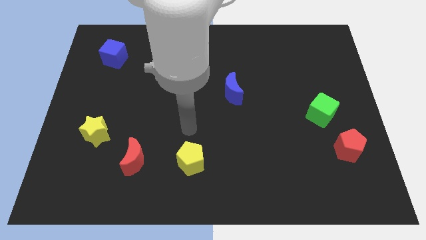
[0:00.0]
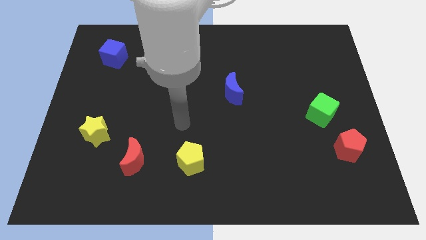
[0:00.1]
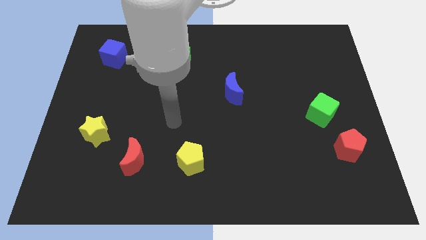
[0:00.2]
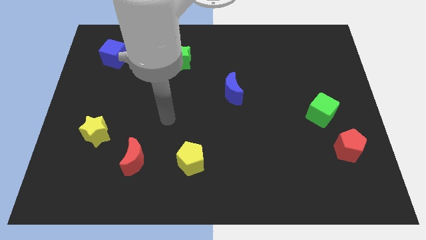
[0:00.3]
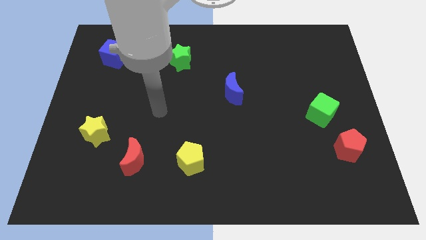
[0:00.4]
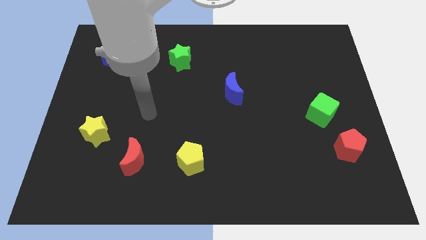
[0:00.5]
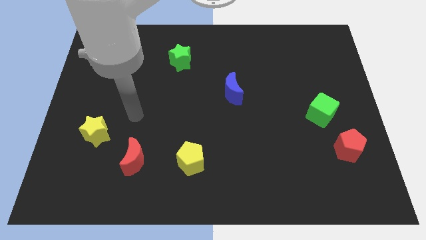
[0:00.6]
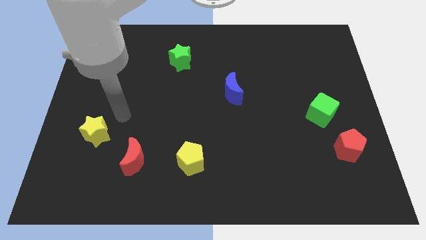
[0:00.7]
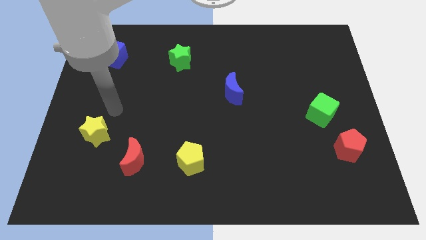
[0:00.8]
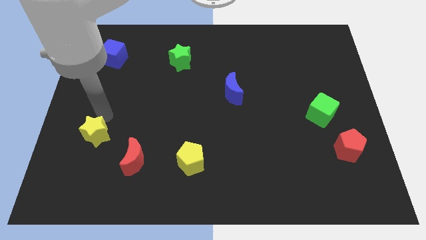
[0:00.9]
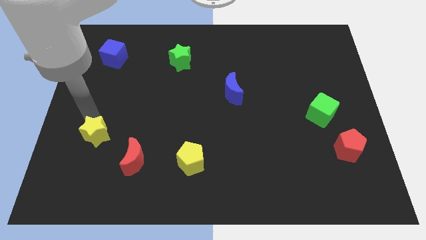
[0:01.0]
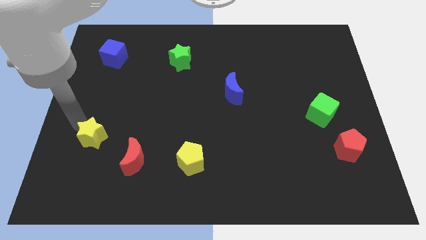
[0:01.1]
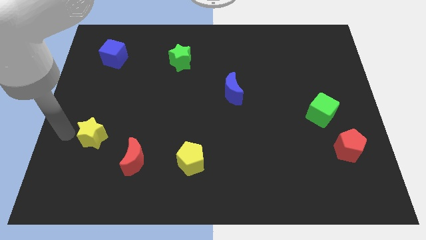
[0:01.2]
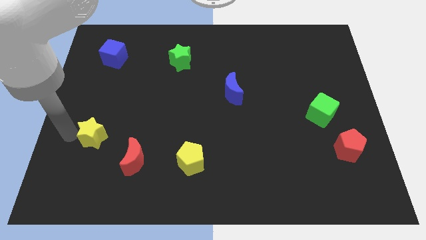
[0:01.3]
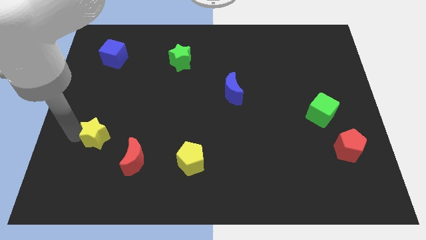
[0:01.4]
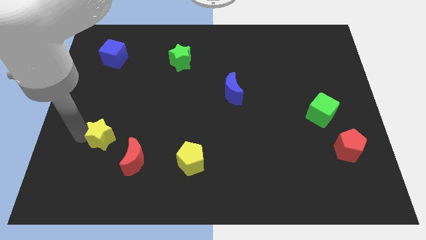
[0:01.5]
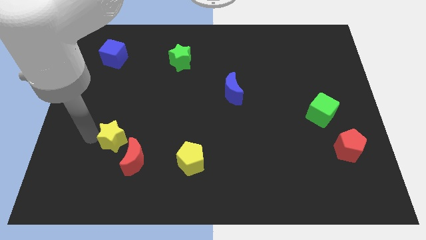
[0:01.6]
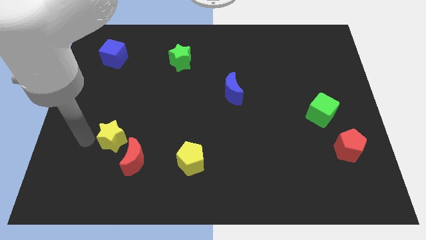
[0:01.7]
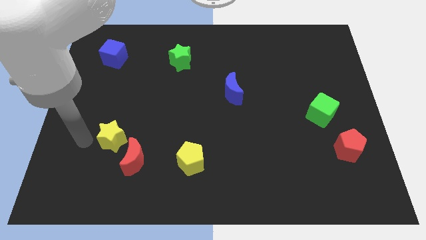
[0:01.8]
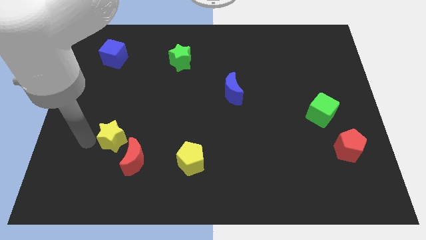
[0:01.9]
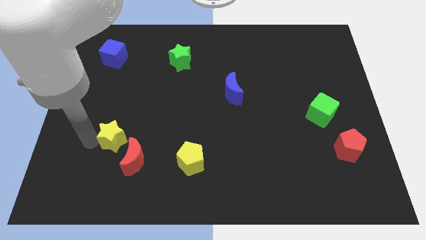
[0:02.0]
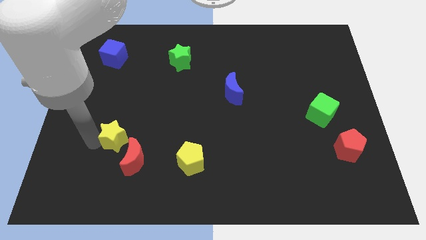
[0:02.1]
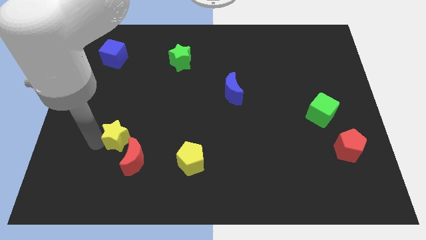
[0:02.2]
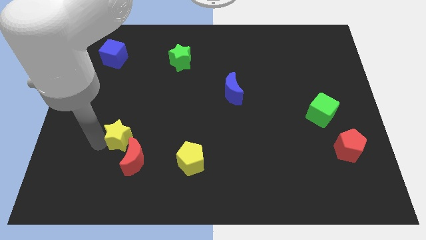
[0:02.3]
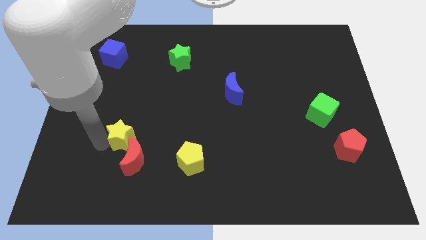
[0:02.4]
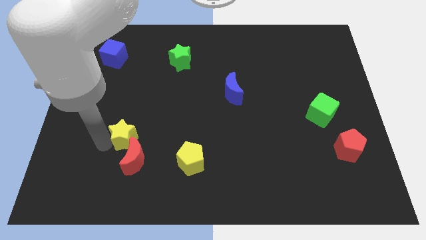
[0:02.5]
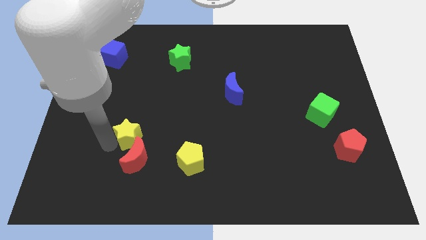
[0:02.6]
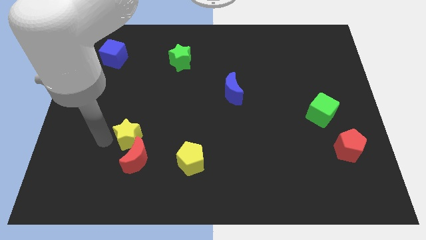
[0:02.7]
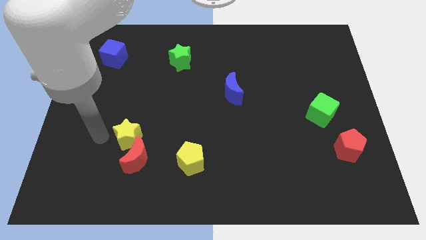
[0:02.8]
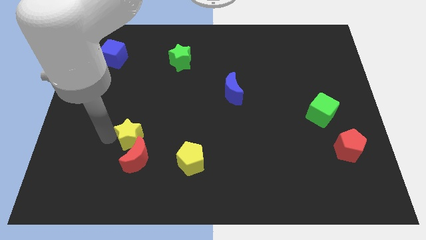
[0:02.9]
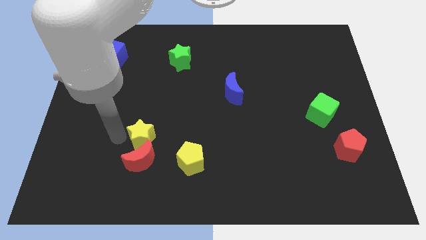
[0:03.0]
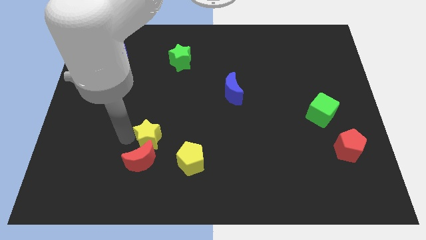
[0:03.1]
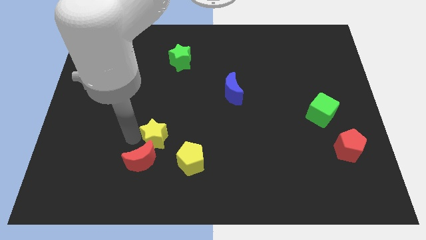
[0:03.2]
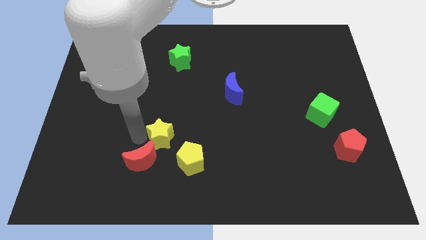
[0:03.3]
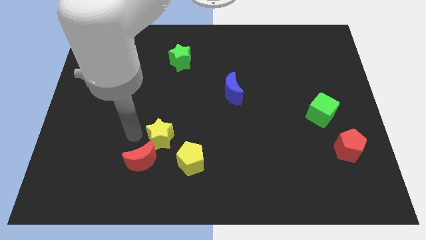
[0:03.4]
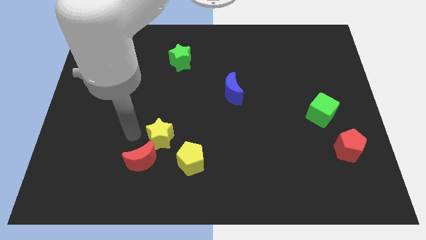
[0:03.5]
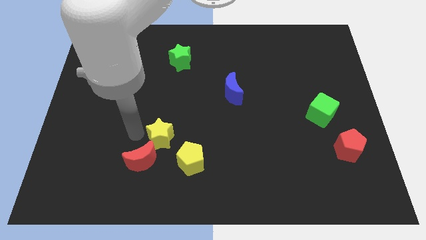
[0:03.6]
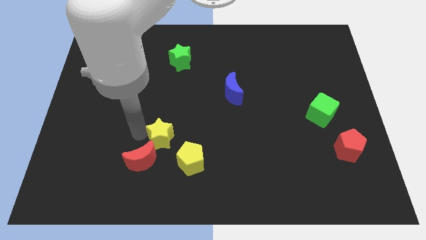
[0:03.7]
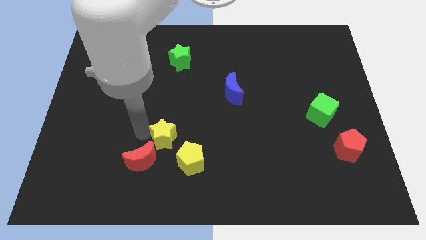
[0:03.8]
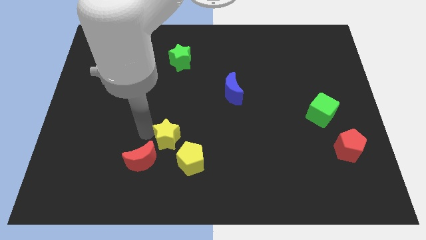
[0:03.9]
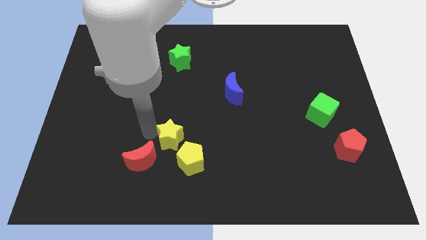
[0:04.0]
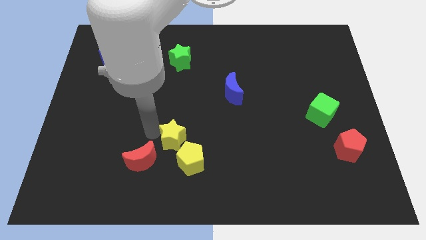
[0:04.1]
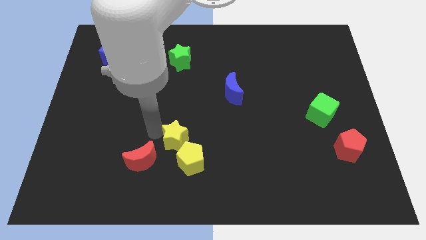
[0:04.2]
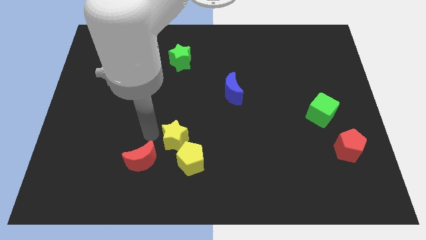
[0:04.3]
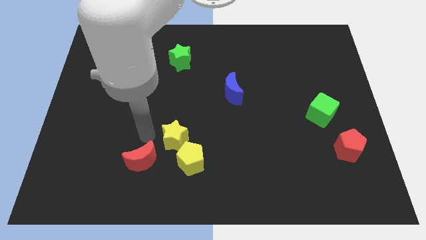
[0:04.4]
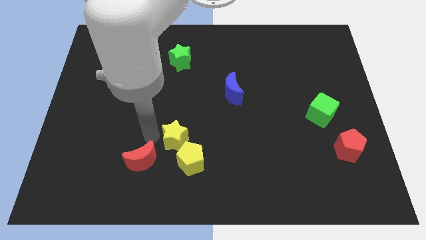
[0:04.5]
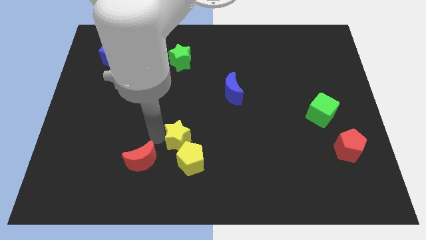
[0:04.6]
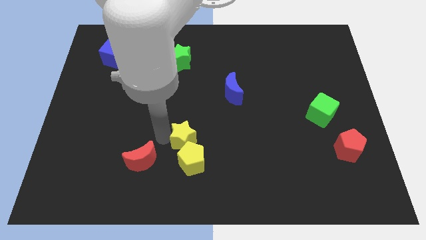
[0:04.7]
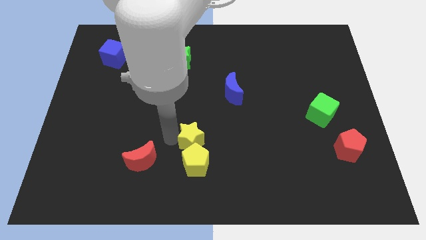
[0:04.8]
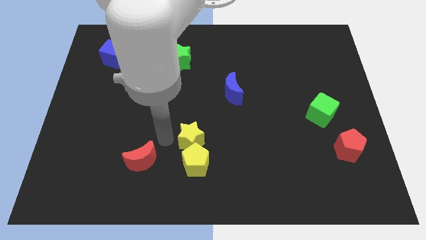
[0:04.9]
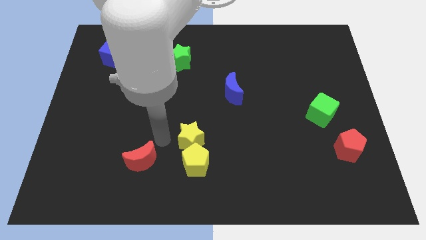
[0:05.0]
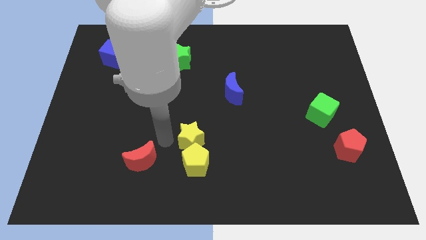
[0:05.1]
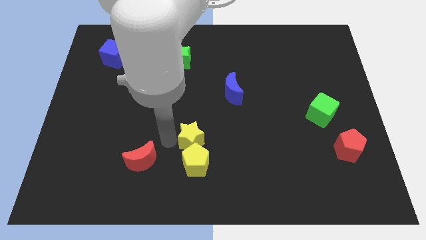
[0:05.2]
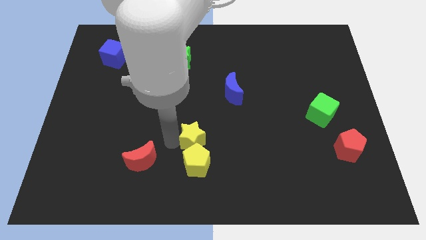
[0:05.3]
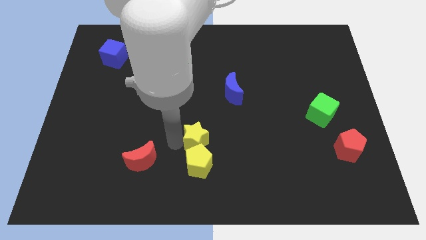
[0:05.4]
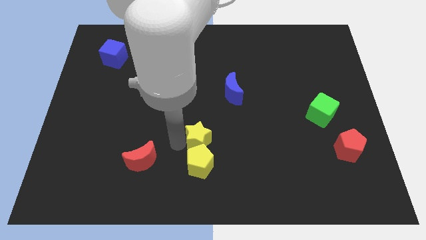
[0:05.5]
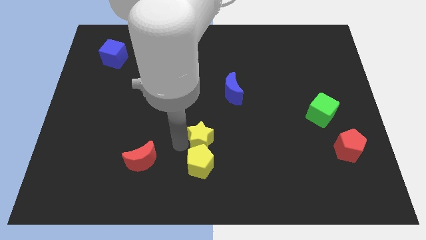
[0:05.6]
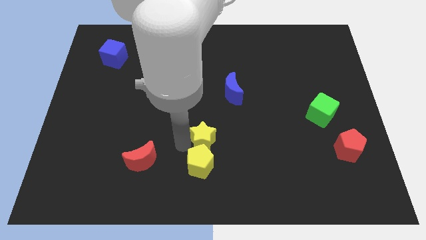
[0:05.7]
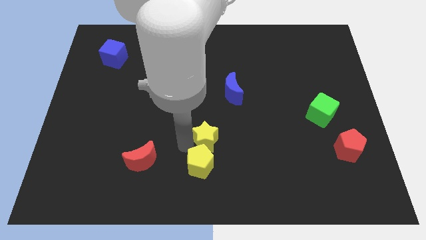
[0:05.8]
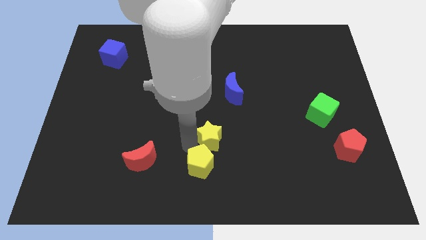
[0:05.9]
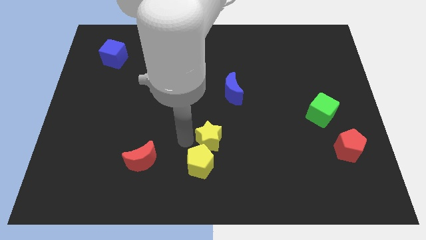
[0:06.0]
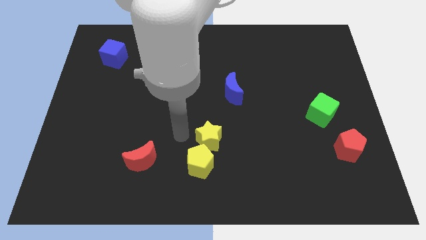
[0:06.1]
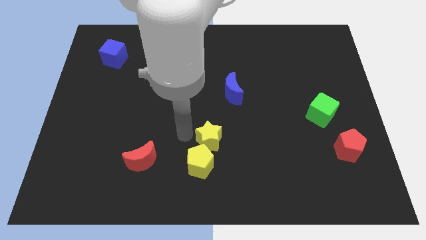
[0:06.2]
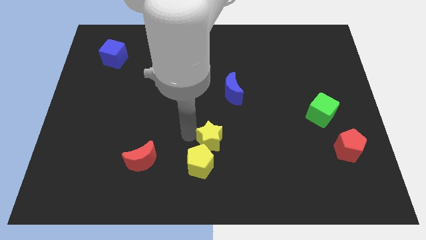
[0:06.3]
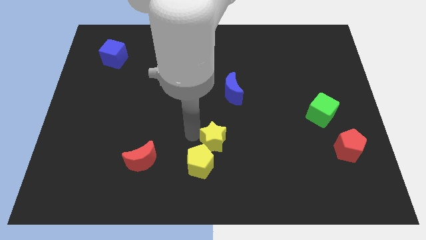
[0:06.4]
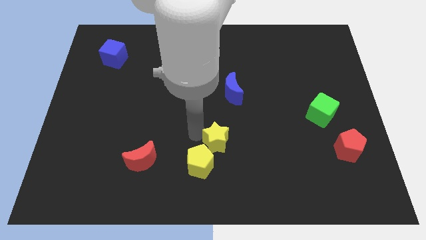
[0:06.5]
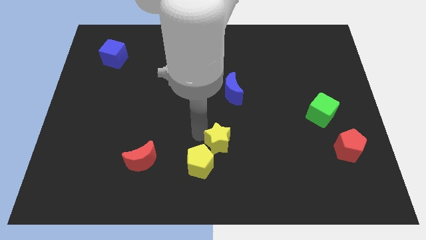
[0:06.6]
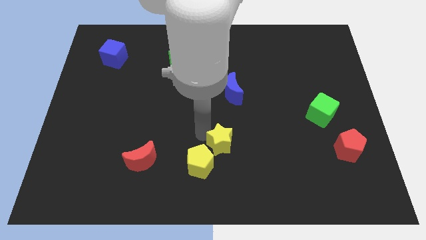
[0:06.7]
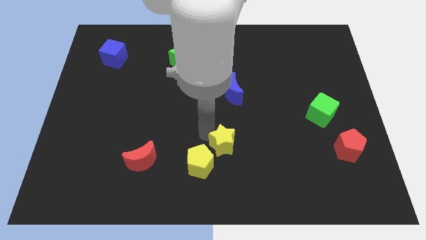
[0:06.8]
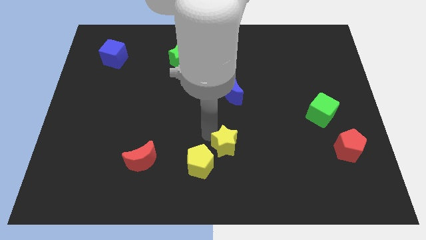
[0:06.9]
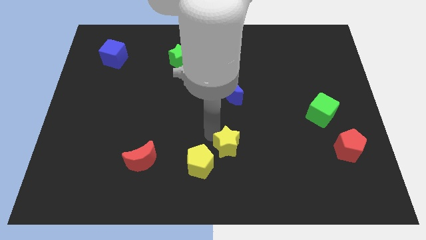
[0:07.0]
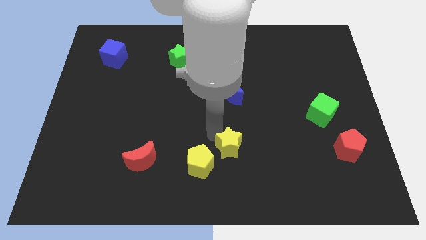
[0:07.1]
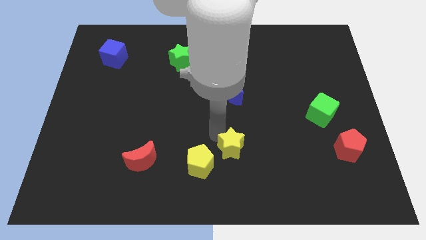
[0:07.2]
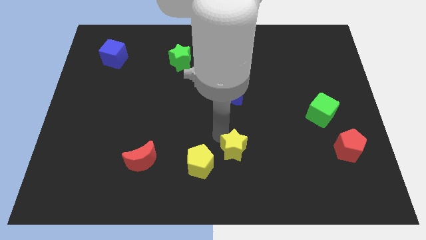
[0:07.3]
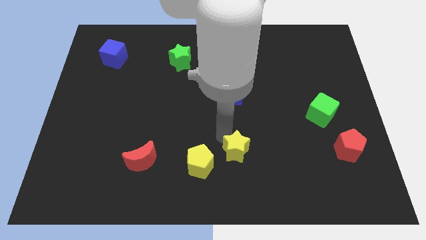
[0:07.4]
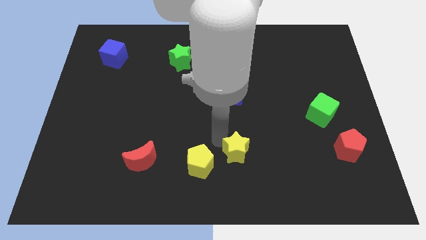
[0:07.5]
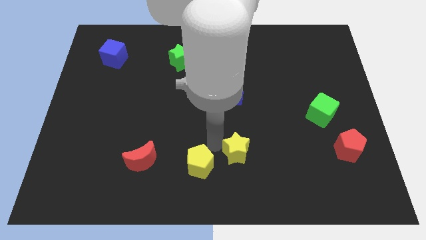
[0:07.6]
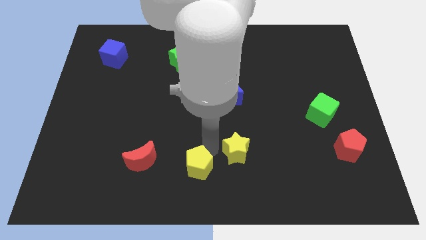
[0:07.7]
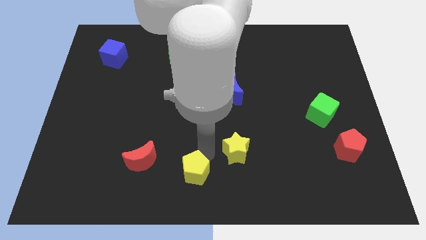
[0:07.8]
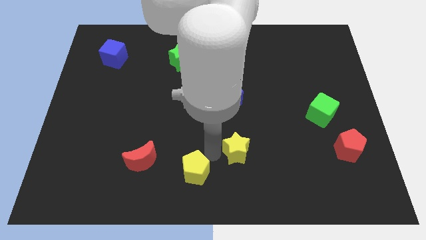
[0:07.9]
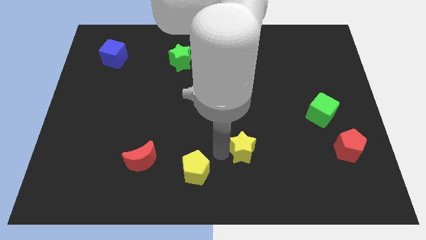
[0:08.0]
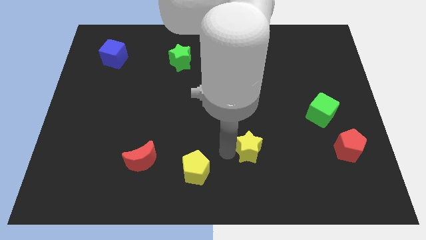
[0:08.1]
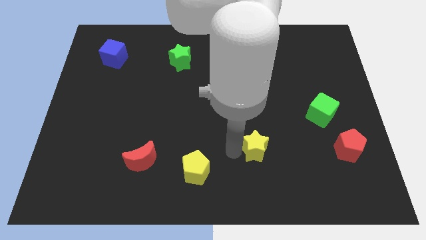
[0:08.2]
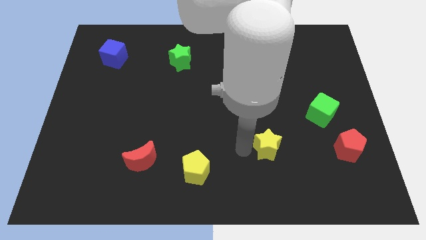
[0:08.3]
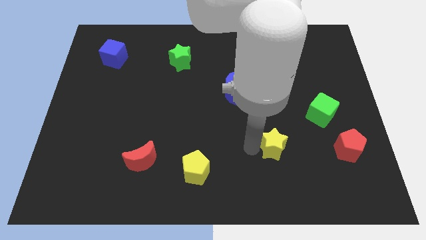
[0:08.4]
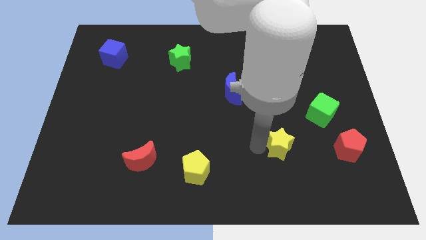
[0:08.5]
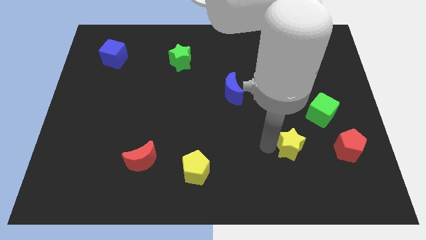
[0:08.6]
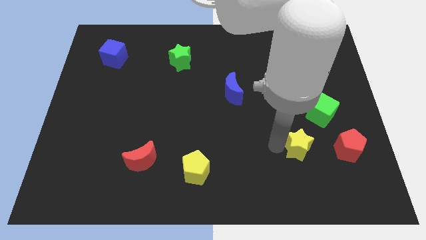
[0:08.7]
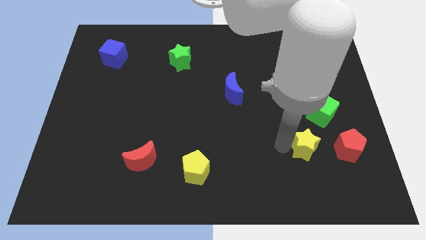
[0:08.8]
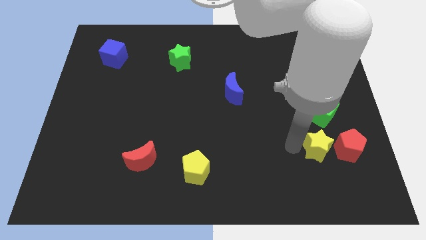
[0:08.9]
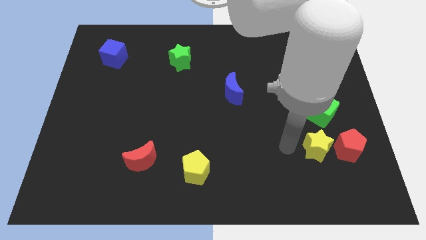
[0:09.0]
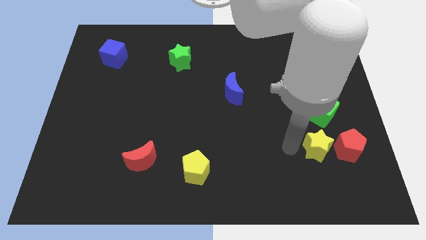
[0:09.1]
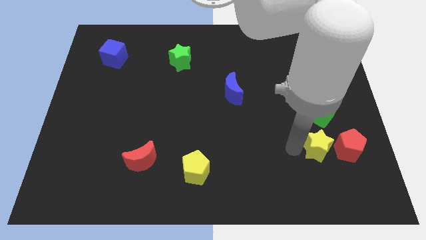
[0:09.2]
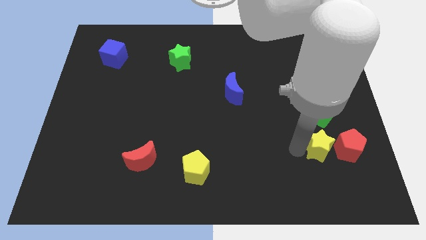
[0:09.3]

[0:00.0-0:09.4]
slide the yellow star close to the red pentagon
